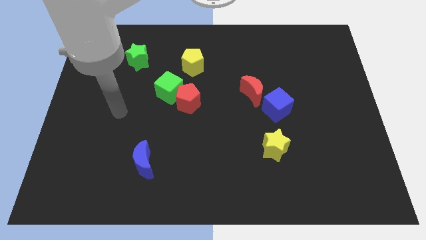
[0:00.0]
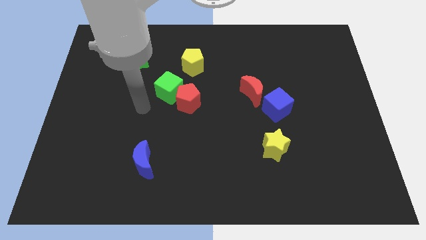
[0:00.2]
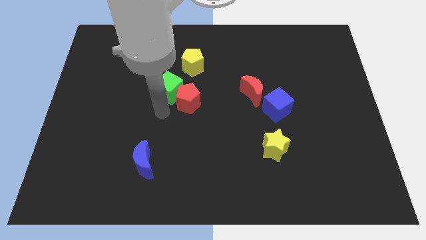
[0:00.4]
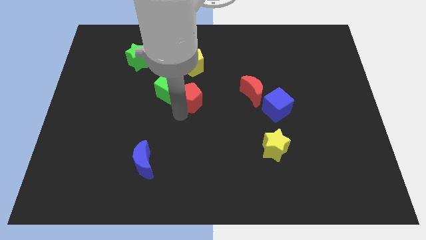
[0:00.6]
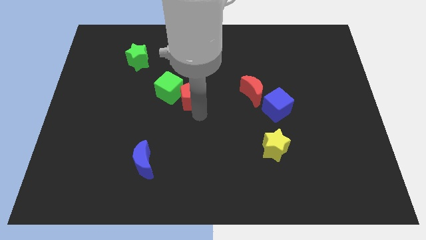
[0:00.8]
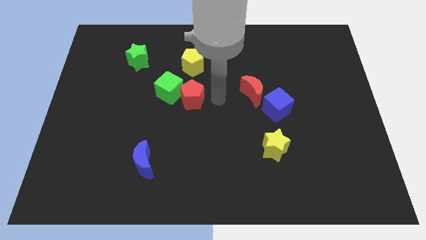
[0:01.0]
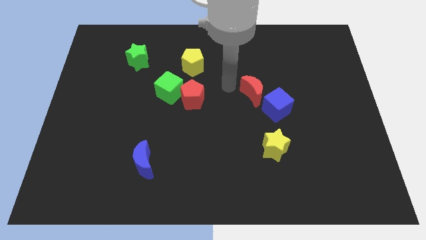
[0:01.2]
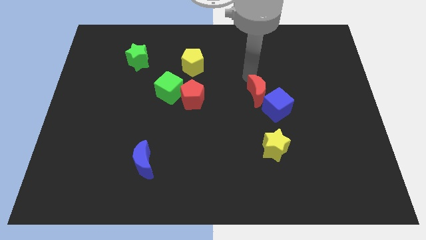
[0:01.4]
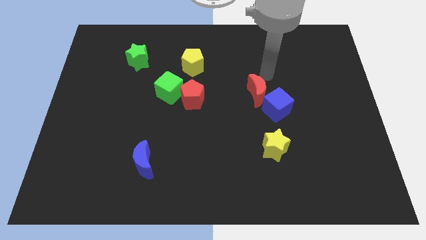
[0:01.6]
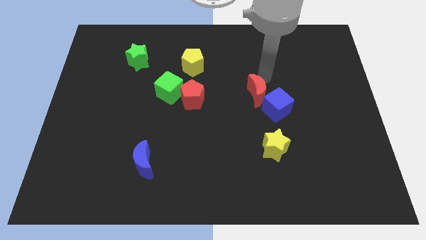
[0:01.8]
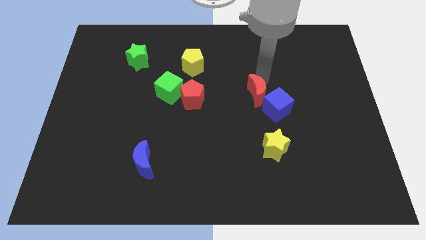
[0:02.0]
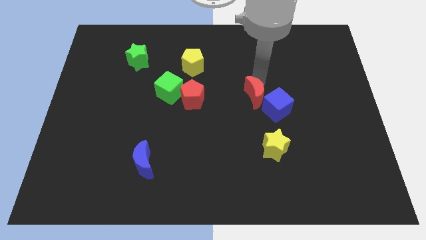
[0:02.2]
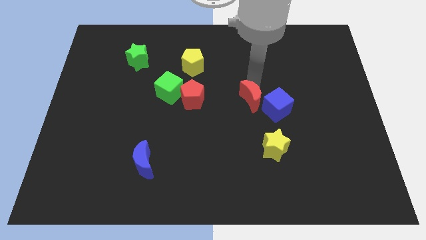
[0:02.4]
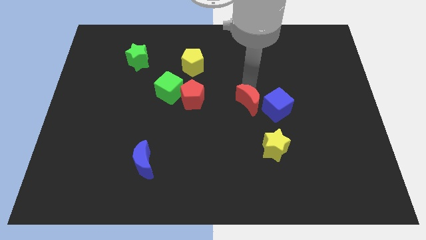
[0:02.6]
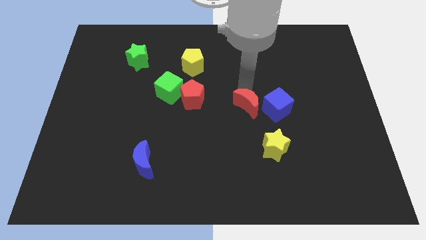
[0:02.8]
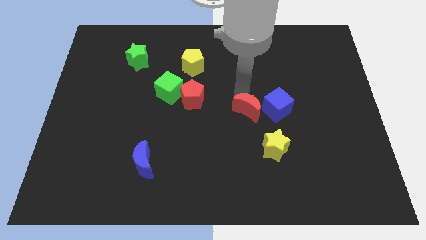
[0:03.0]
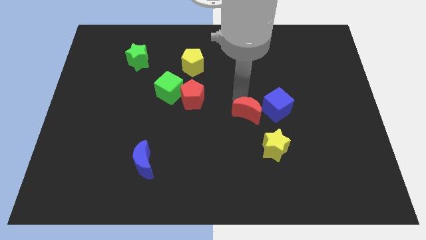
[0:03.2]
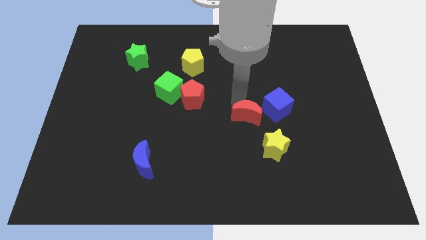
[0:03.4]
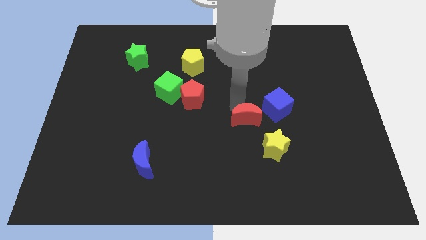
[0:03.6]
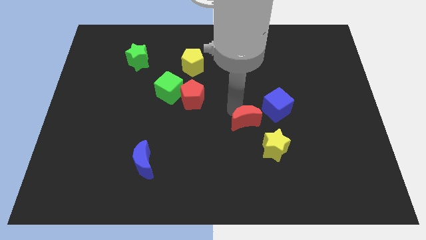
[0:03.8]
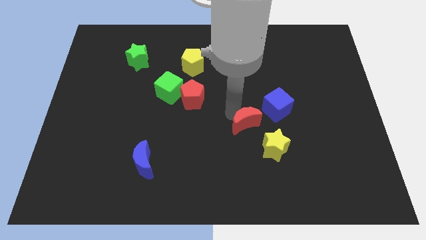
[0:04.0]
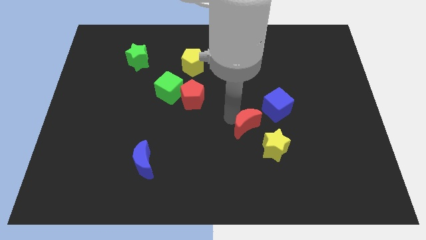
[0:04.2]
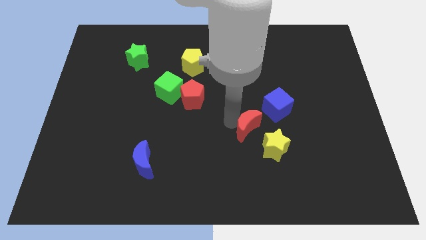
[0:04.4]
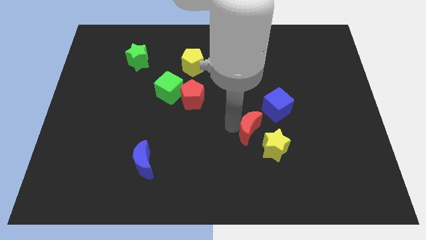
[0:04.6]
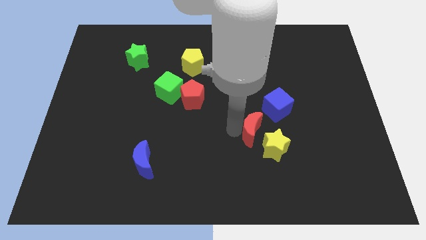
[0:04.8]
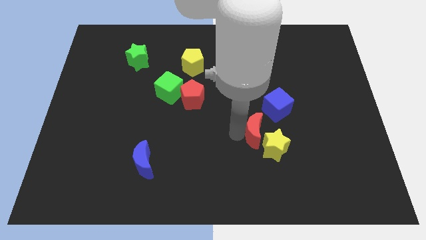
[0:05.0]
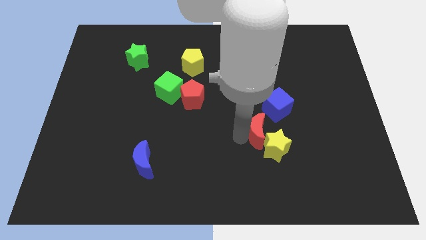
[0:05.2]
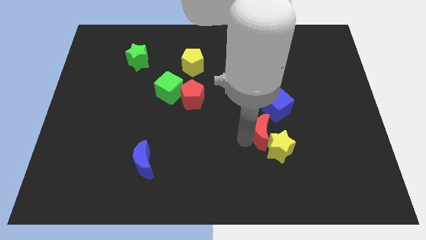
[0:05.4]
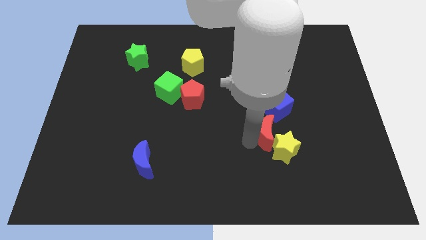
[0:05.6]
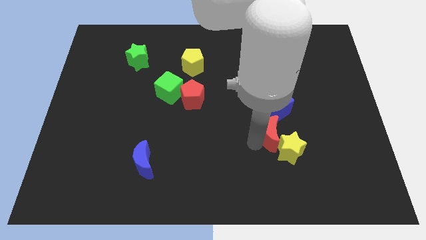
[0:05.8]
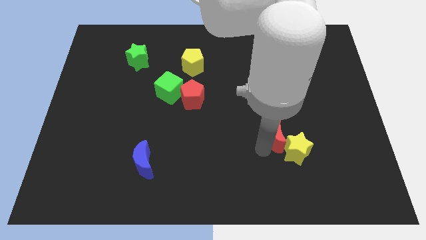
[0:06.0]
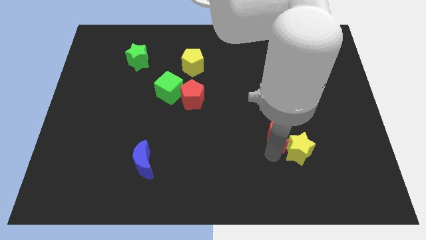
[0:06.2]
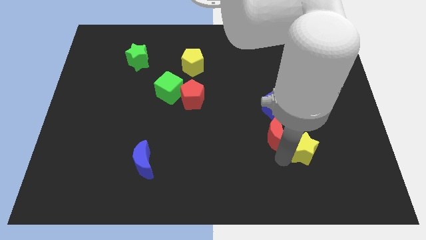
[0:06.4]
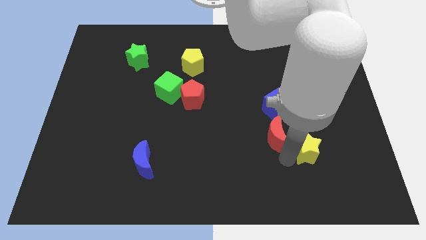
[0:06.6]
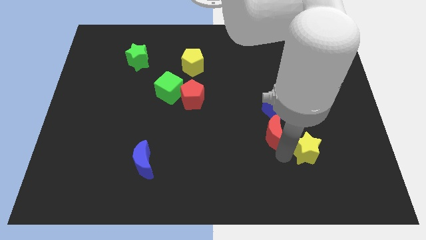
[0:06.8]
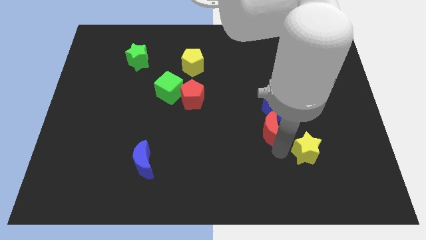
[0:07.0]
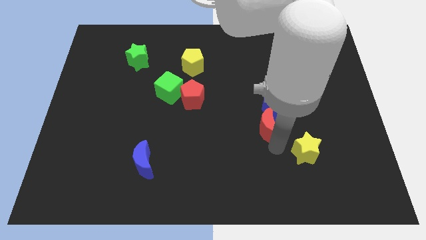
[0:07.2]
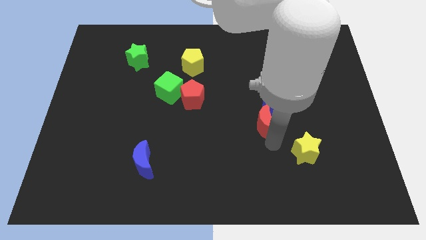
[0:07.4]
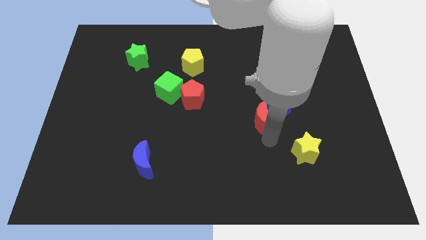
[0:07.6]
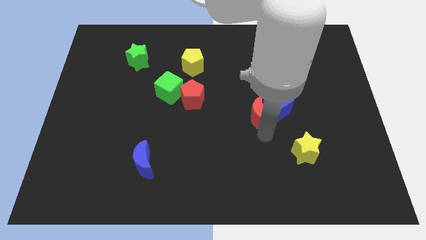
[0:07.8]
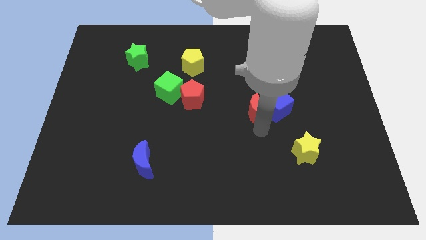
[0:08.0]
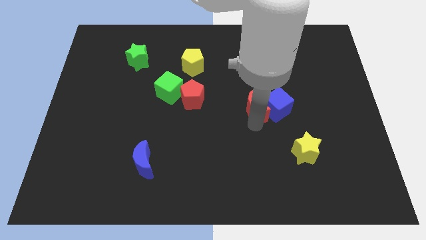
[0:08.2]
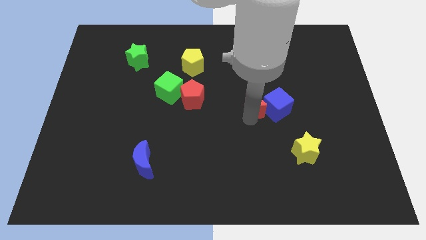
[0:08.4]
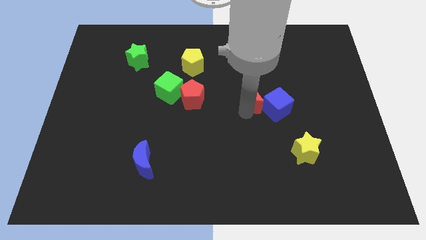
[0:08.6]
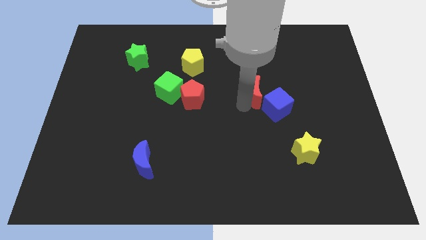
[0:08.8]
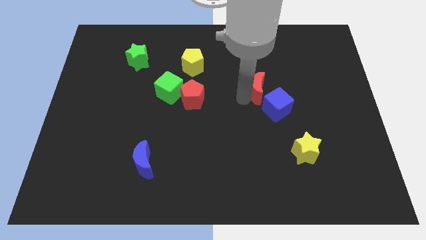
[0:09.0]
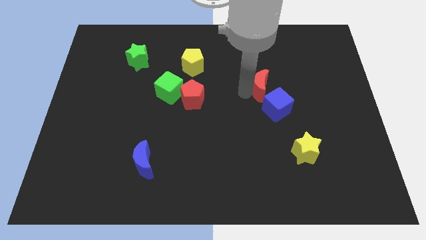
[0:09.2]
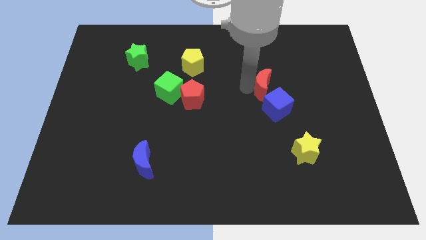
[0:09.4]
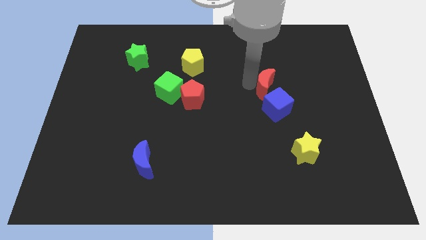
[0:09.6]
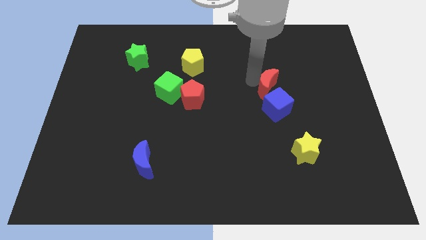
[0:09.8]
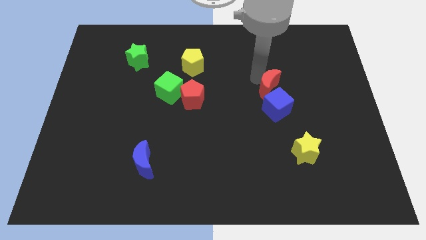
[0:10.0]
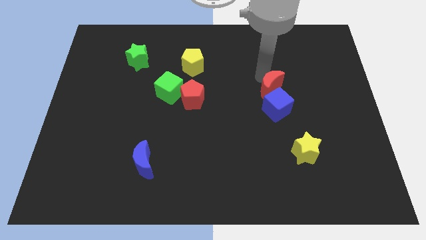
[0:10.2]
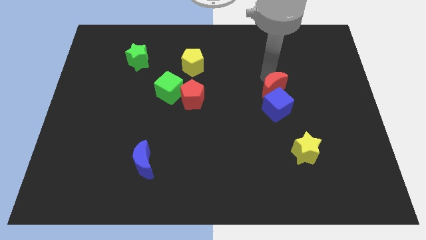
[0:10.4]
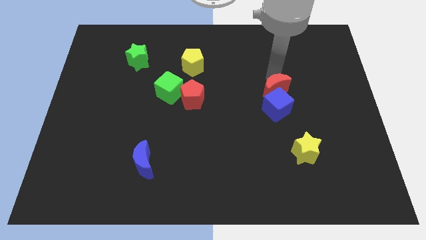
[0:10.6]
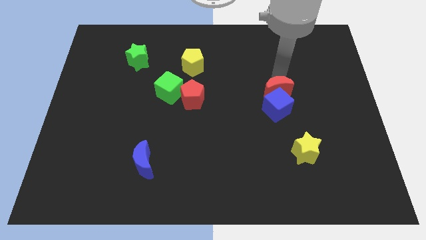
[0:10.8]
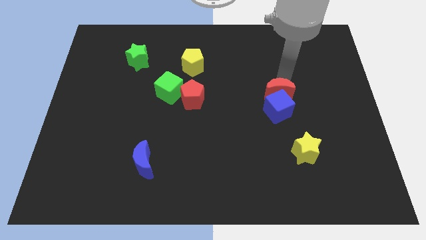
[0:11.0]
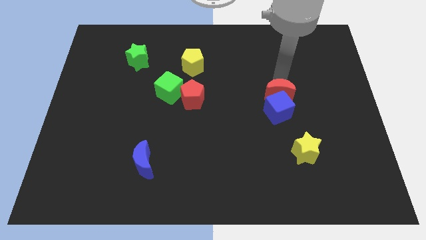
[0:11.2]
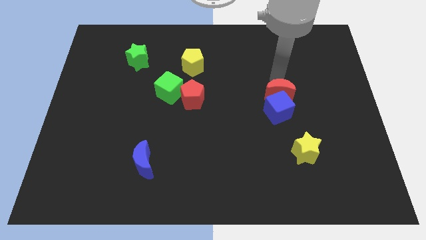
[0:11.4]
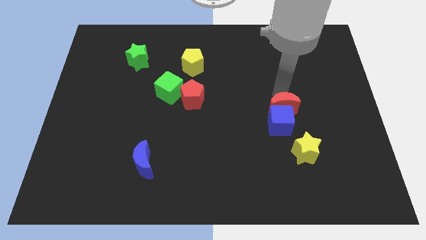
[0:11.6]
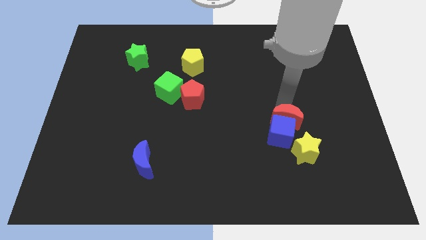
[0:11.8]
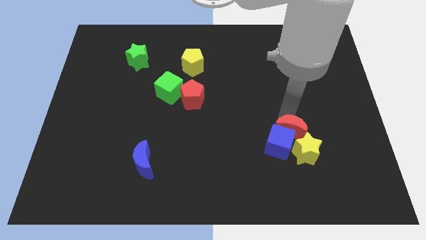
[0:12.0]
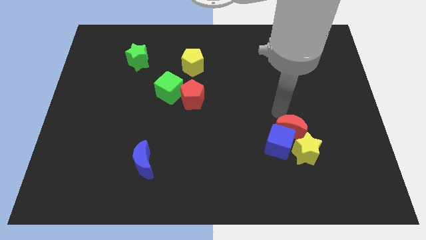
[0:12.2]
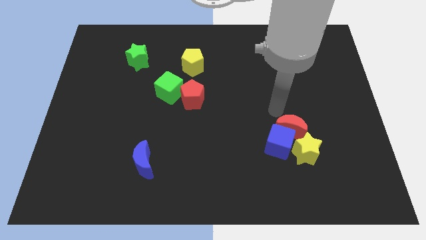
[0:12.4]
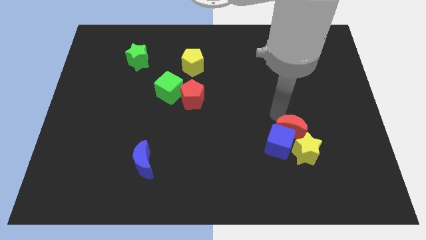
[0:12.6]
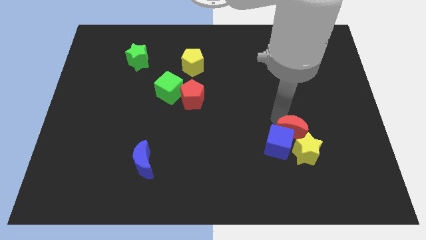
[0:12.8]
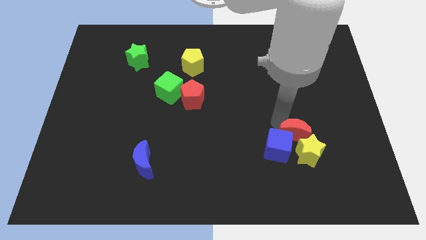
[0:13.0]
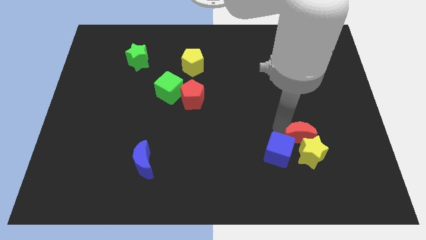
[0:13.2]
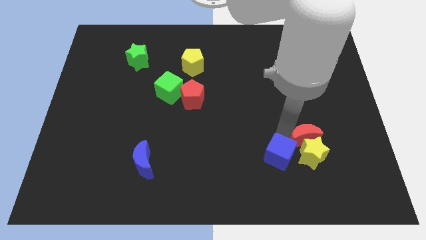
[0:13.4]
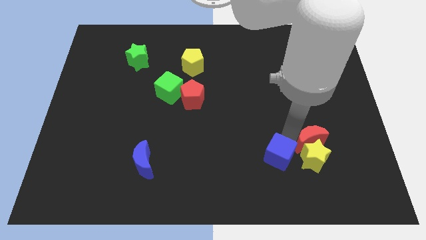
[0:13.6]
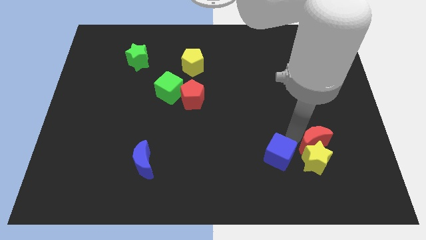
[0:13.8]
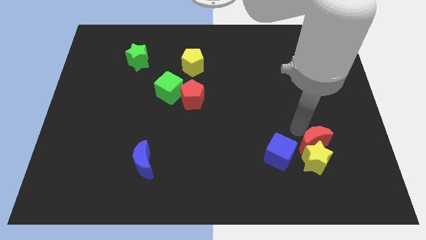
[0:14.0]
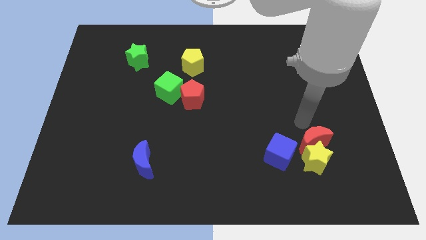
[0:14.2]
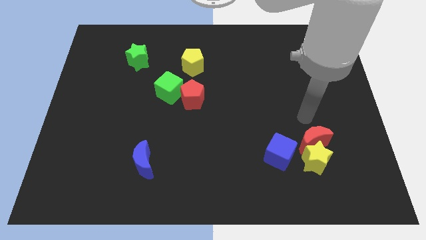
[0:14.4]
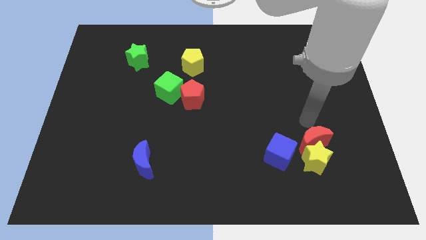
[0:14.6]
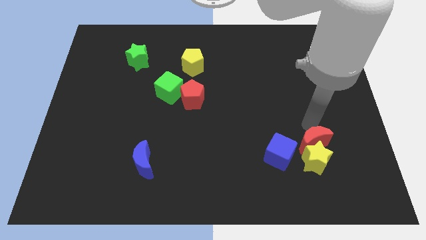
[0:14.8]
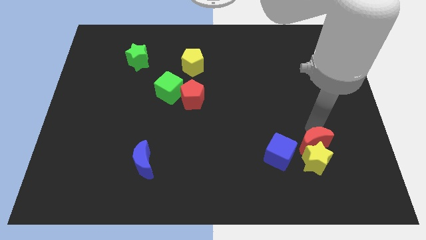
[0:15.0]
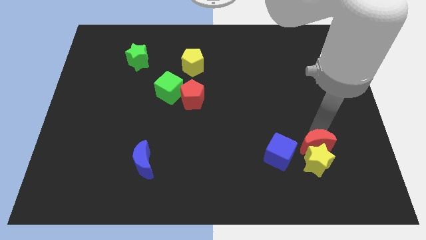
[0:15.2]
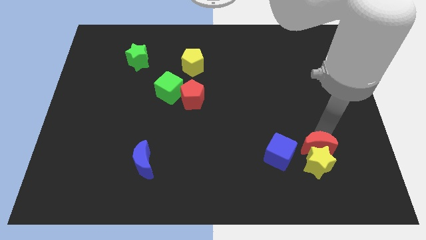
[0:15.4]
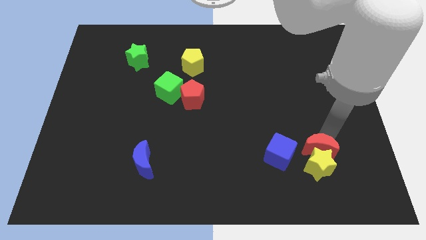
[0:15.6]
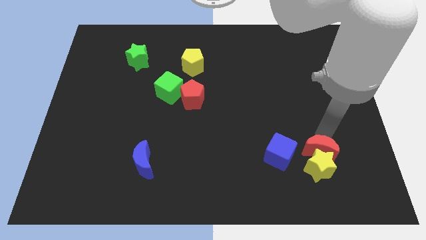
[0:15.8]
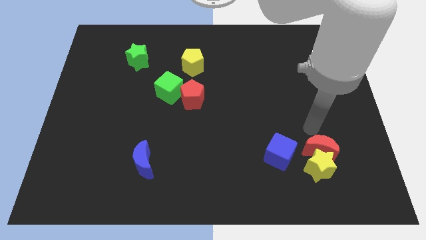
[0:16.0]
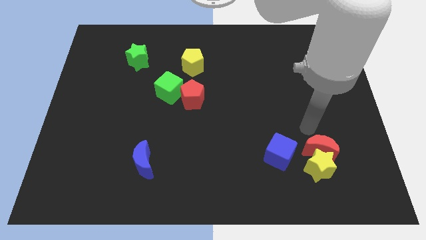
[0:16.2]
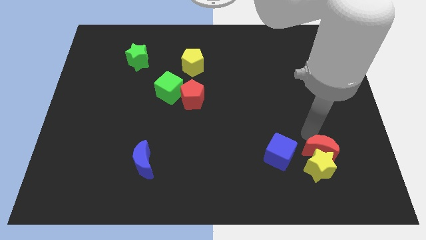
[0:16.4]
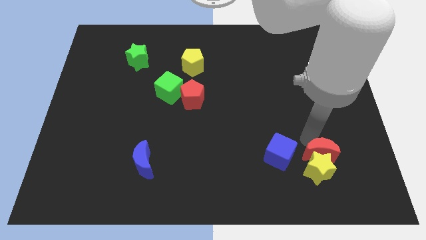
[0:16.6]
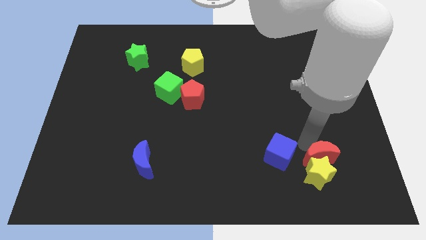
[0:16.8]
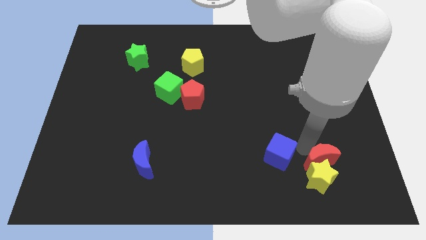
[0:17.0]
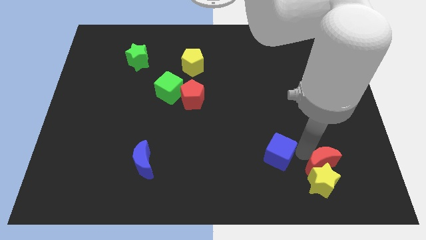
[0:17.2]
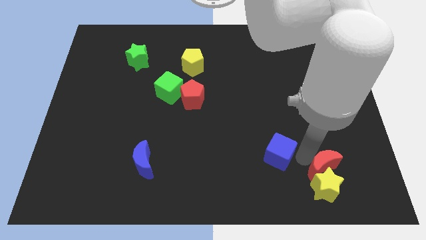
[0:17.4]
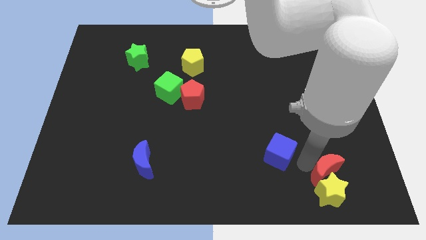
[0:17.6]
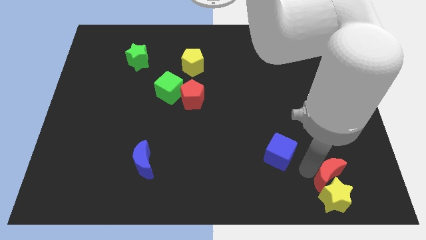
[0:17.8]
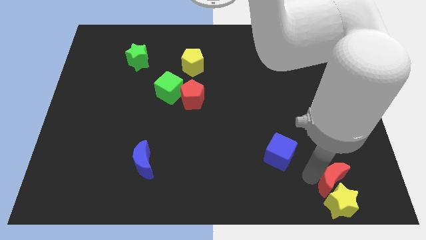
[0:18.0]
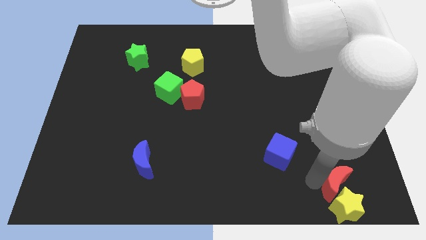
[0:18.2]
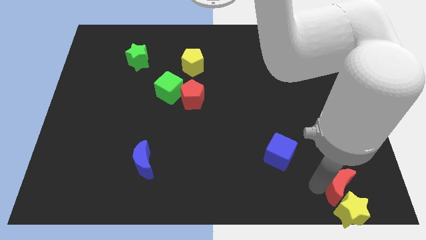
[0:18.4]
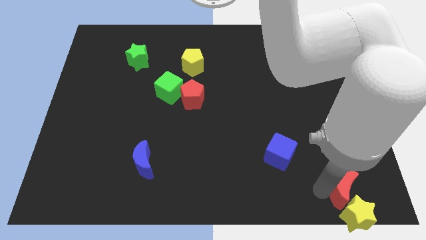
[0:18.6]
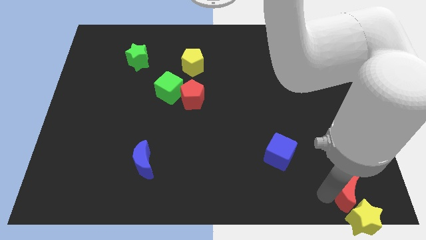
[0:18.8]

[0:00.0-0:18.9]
push the red moon to the bottom right
